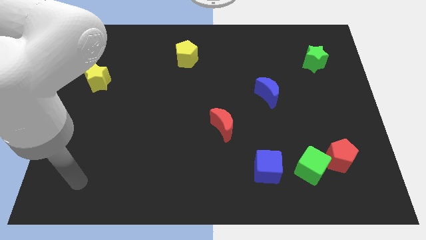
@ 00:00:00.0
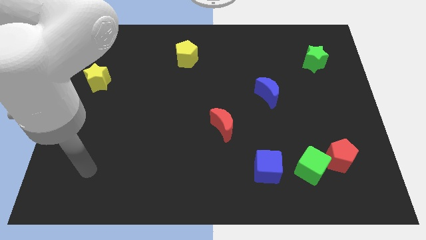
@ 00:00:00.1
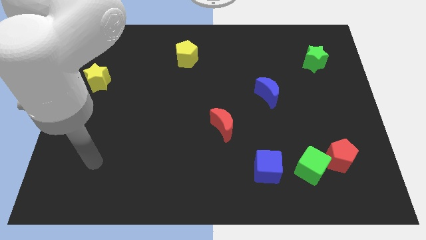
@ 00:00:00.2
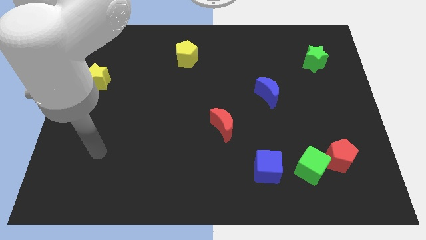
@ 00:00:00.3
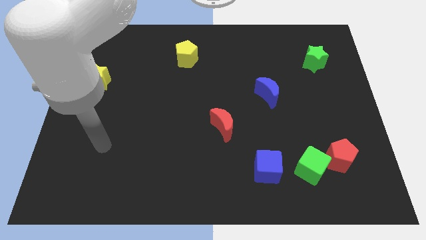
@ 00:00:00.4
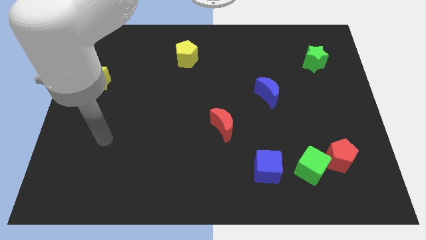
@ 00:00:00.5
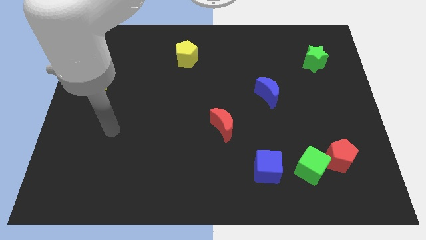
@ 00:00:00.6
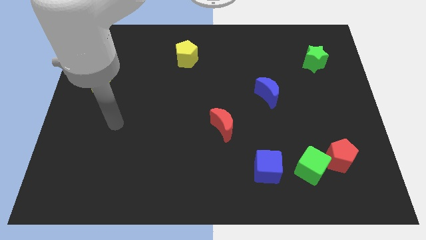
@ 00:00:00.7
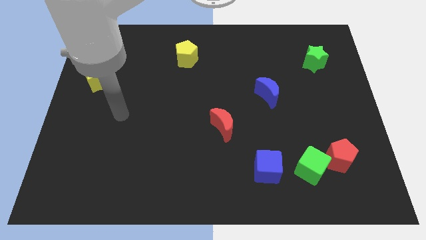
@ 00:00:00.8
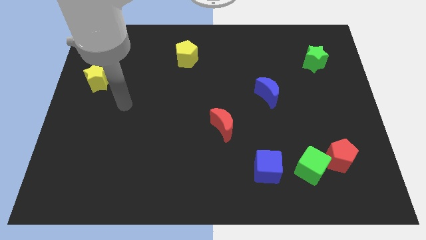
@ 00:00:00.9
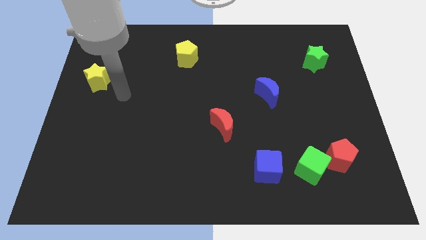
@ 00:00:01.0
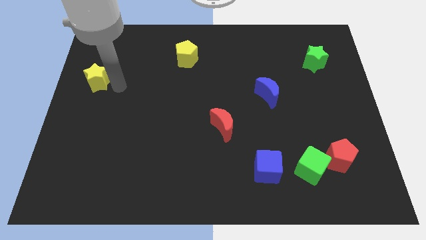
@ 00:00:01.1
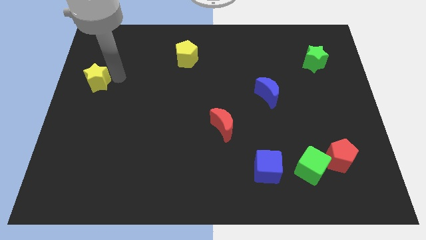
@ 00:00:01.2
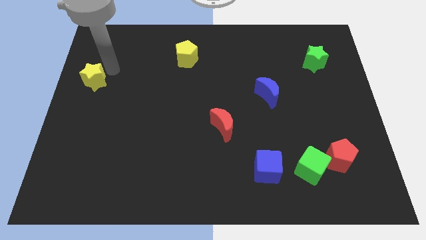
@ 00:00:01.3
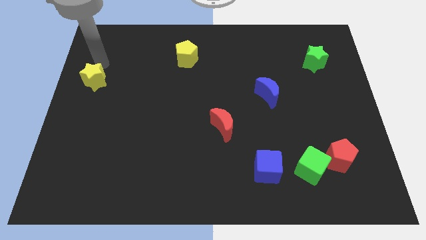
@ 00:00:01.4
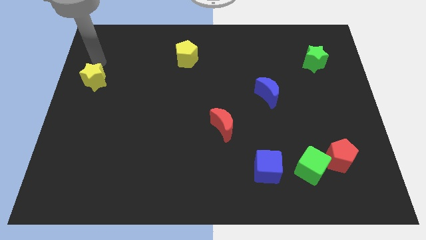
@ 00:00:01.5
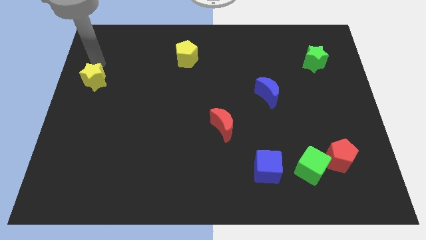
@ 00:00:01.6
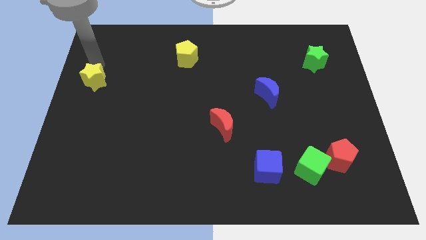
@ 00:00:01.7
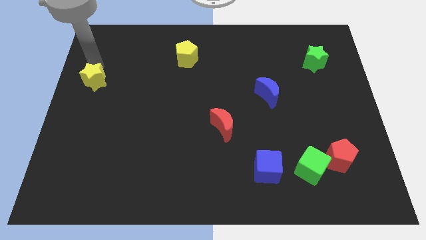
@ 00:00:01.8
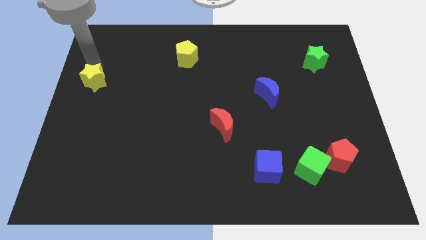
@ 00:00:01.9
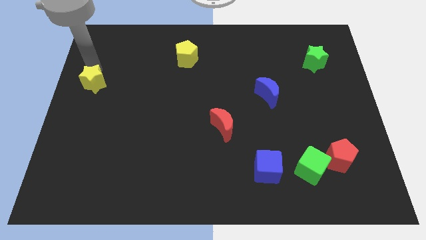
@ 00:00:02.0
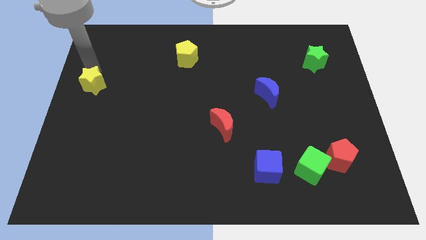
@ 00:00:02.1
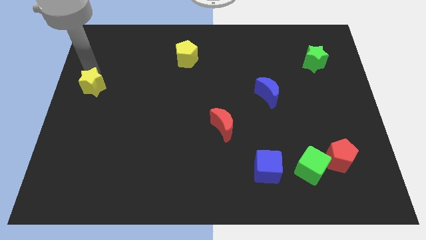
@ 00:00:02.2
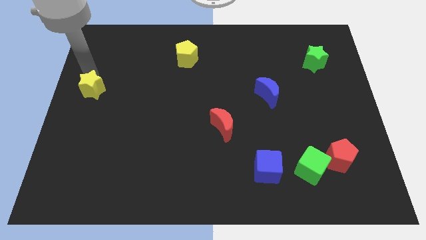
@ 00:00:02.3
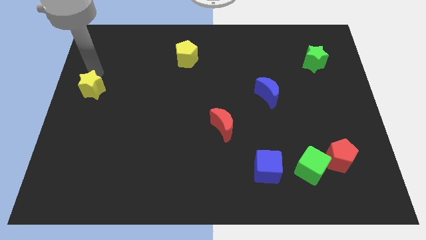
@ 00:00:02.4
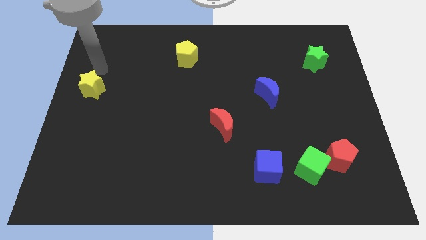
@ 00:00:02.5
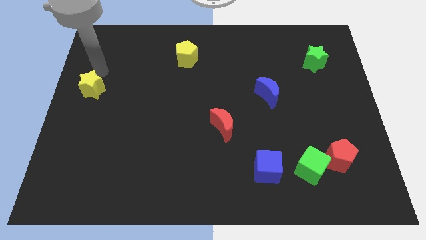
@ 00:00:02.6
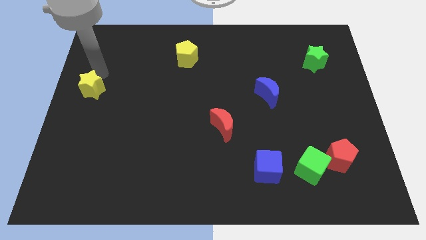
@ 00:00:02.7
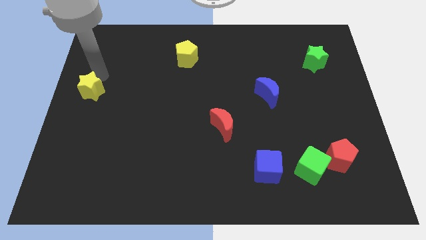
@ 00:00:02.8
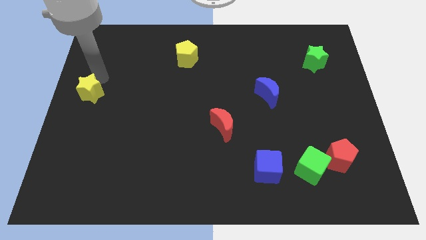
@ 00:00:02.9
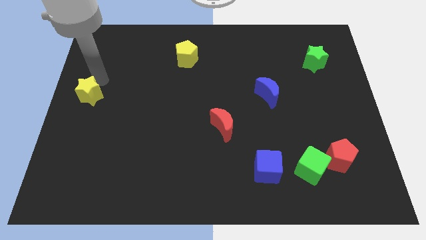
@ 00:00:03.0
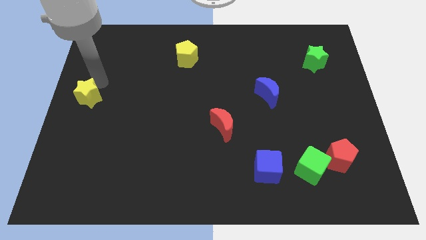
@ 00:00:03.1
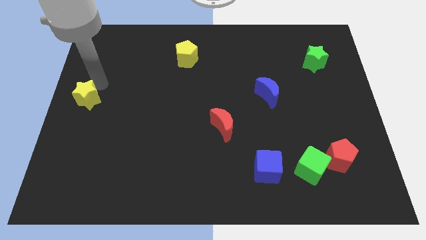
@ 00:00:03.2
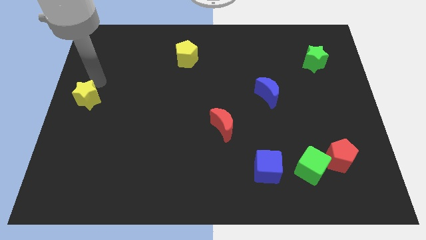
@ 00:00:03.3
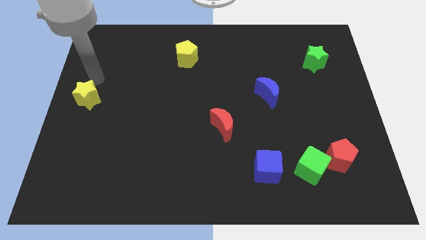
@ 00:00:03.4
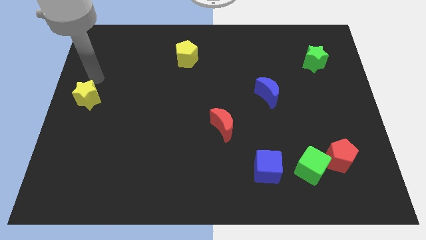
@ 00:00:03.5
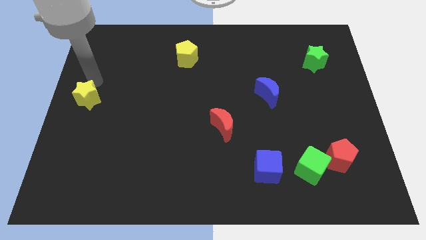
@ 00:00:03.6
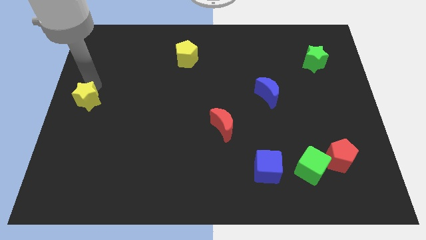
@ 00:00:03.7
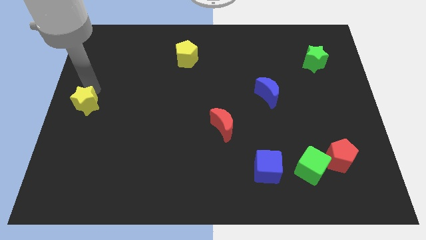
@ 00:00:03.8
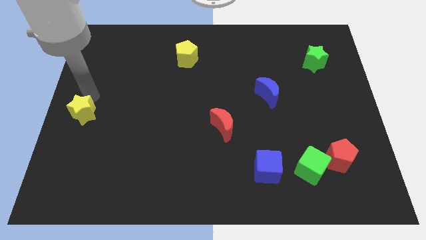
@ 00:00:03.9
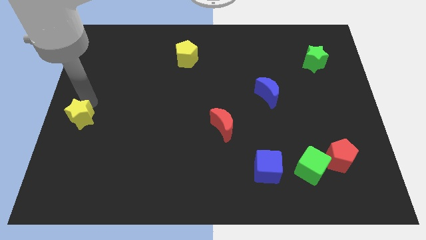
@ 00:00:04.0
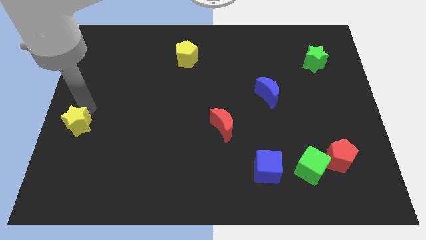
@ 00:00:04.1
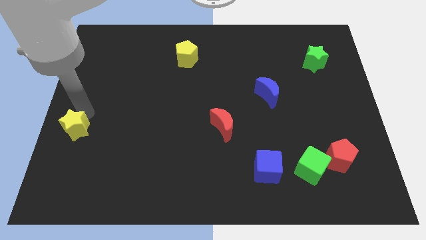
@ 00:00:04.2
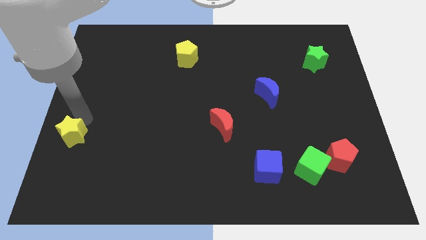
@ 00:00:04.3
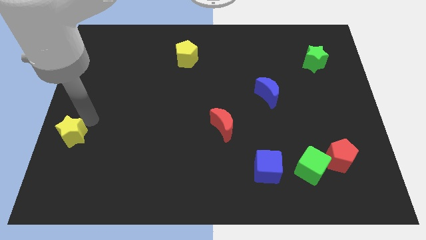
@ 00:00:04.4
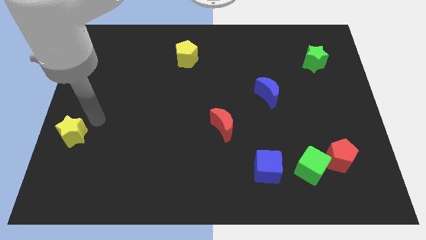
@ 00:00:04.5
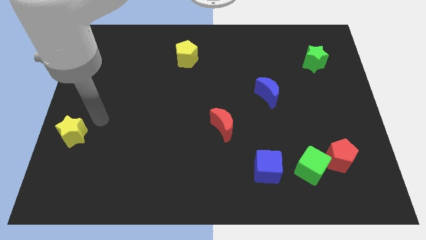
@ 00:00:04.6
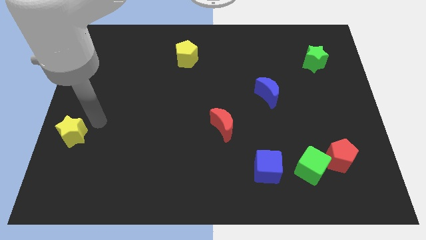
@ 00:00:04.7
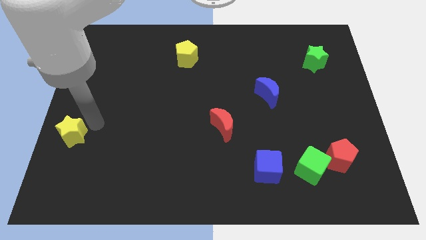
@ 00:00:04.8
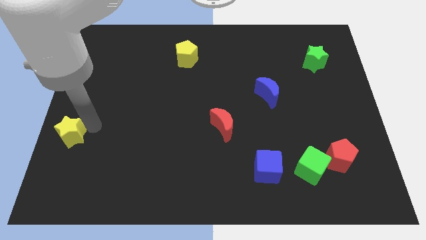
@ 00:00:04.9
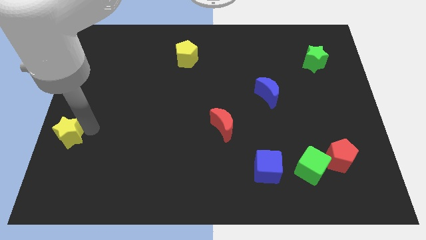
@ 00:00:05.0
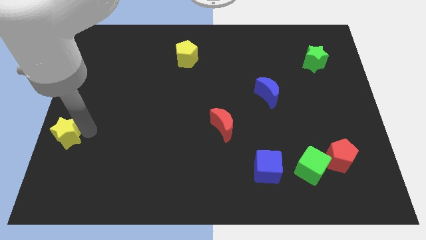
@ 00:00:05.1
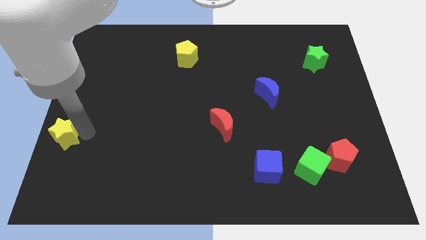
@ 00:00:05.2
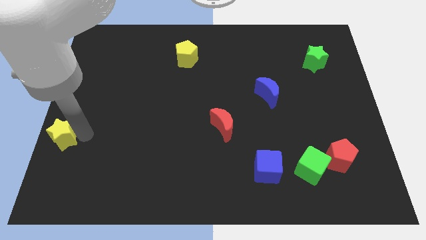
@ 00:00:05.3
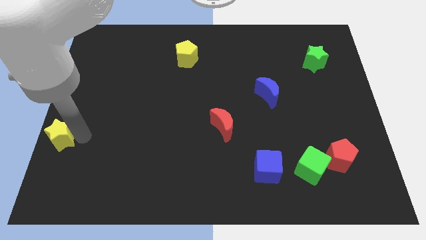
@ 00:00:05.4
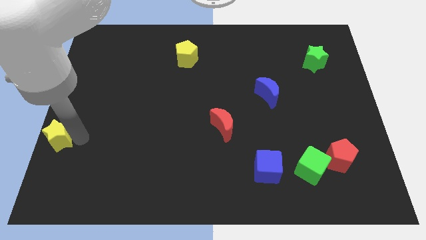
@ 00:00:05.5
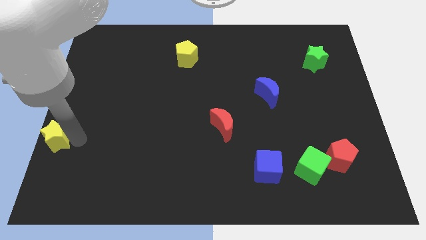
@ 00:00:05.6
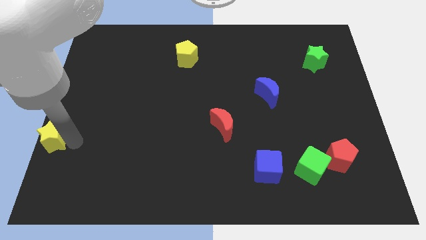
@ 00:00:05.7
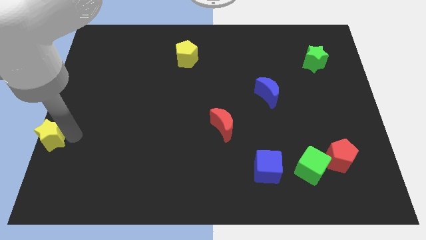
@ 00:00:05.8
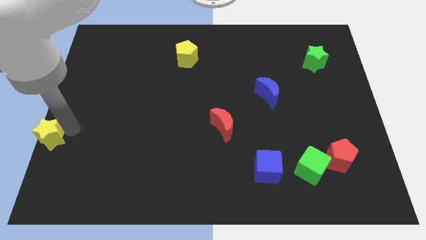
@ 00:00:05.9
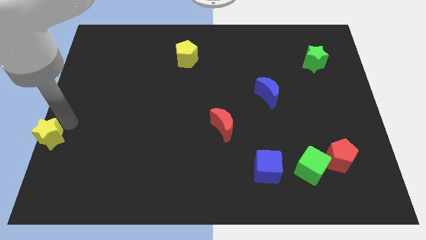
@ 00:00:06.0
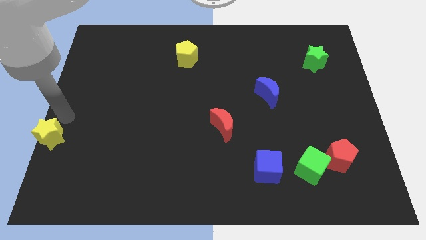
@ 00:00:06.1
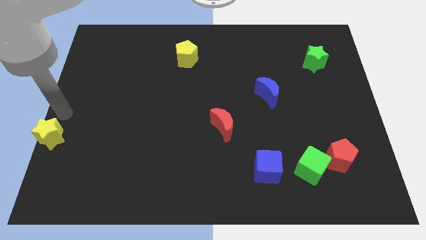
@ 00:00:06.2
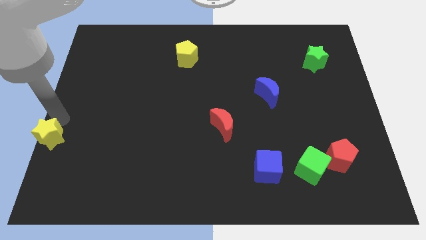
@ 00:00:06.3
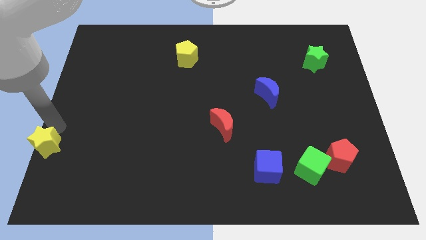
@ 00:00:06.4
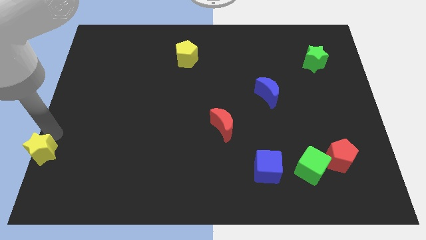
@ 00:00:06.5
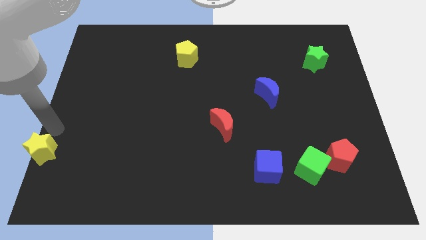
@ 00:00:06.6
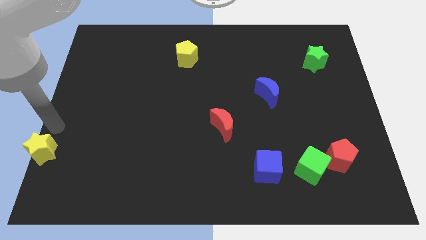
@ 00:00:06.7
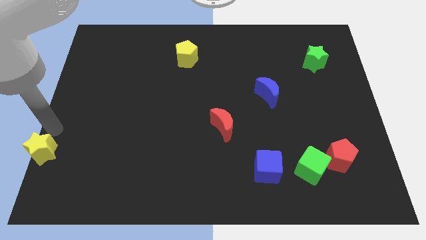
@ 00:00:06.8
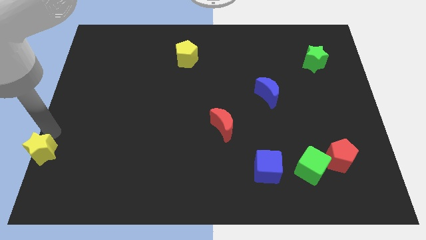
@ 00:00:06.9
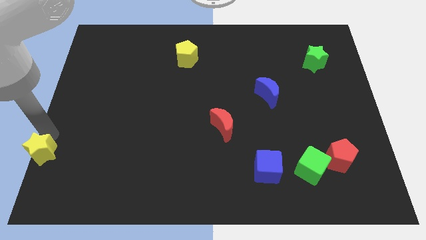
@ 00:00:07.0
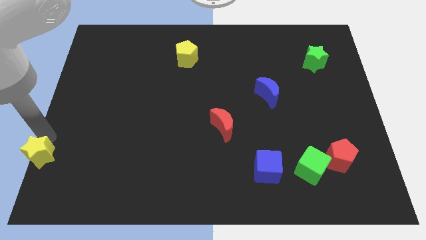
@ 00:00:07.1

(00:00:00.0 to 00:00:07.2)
move the yellow star to the bottom left of the board

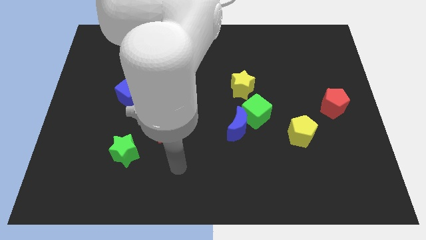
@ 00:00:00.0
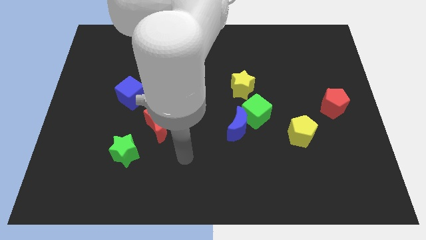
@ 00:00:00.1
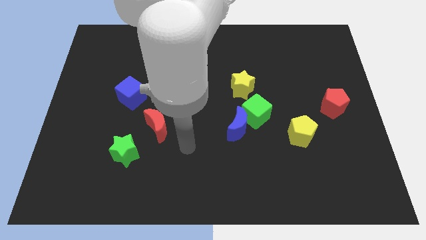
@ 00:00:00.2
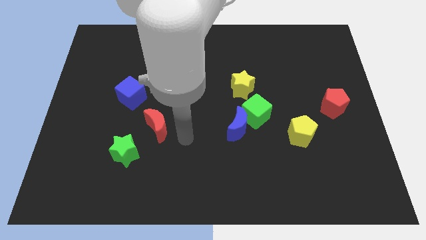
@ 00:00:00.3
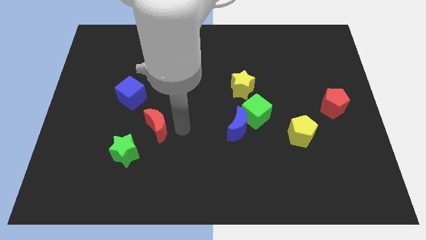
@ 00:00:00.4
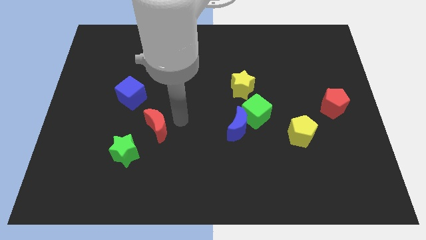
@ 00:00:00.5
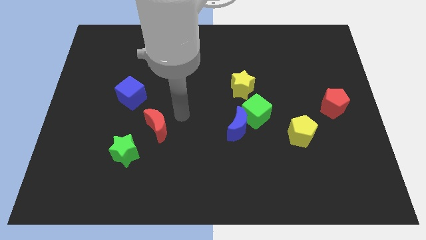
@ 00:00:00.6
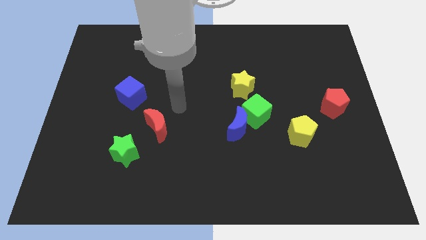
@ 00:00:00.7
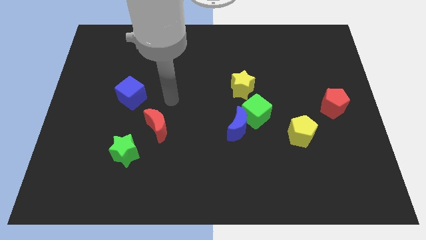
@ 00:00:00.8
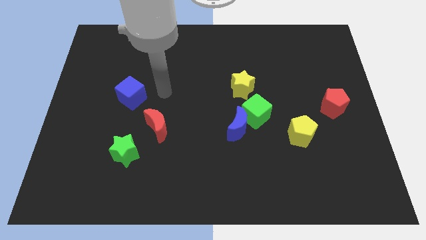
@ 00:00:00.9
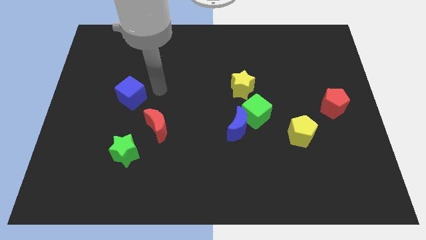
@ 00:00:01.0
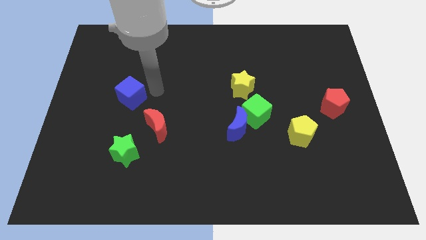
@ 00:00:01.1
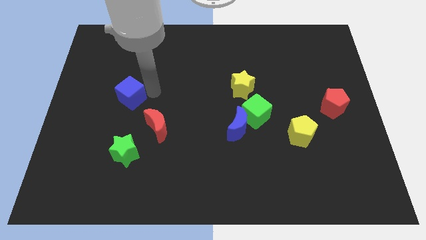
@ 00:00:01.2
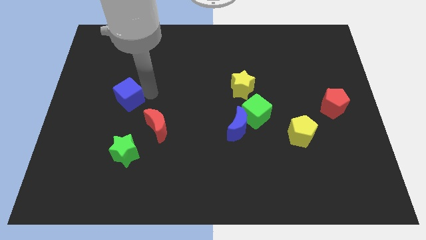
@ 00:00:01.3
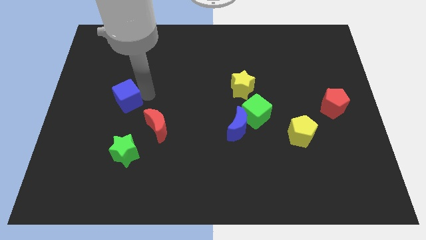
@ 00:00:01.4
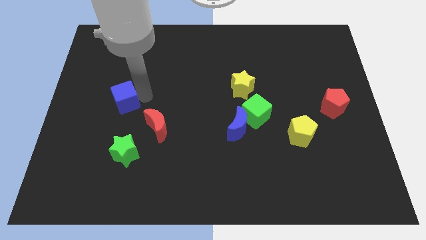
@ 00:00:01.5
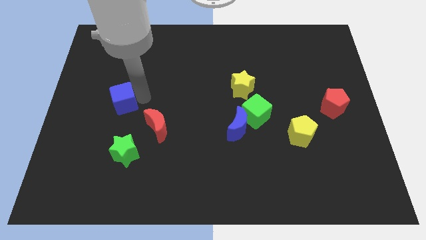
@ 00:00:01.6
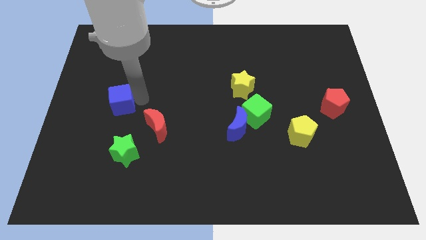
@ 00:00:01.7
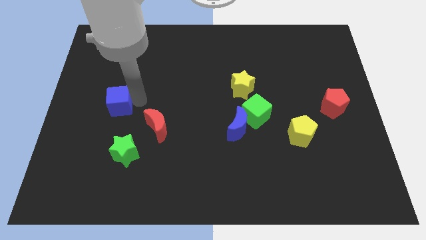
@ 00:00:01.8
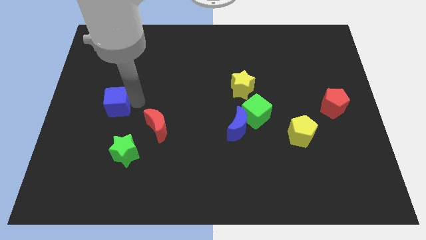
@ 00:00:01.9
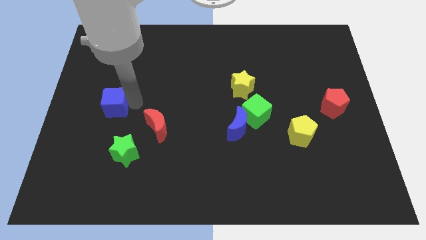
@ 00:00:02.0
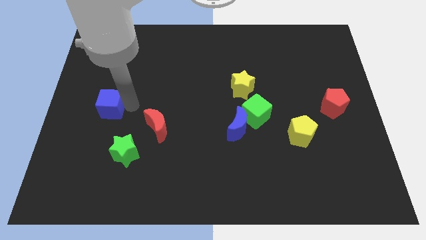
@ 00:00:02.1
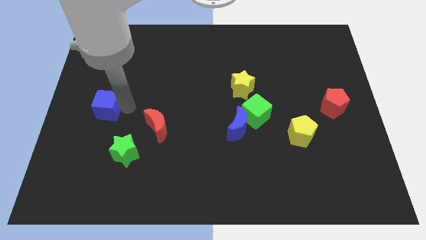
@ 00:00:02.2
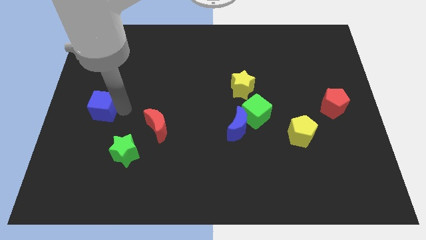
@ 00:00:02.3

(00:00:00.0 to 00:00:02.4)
slide the blue cube to the left side
